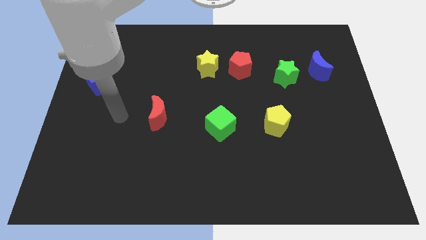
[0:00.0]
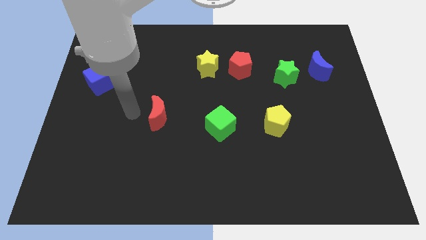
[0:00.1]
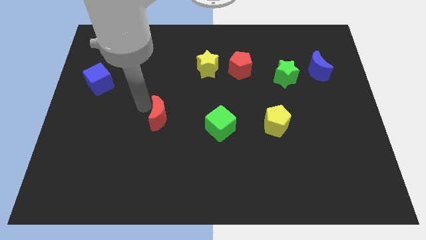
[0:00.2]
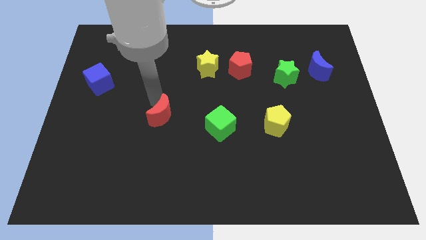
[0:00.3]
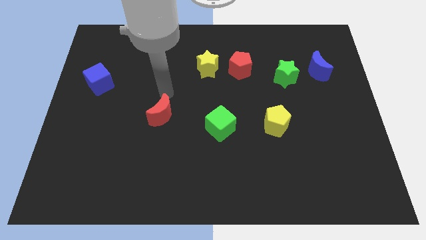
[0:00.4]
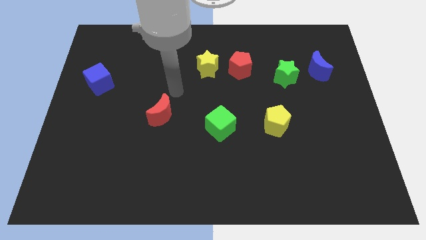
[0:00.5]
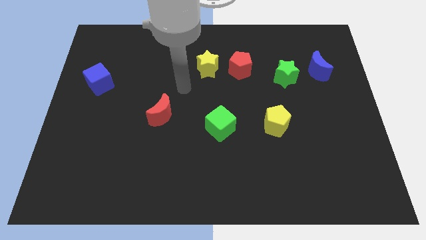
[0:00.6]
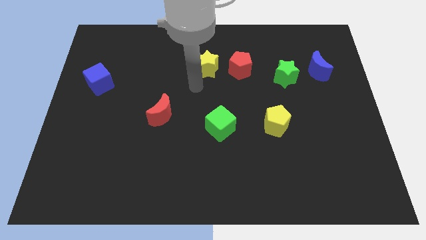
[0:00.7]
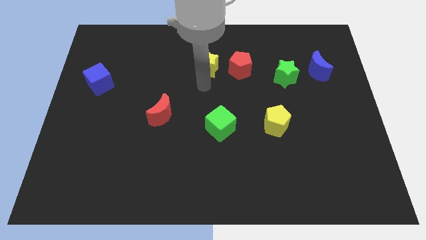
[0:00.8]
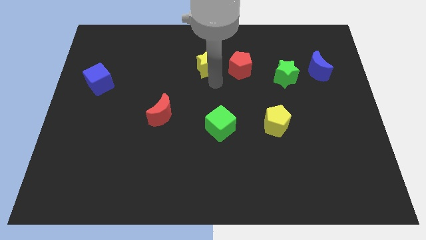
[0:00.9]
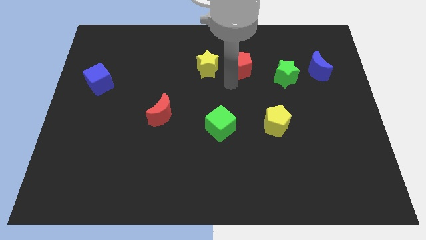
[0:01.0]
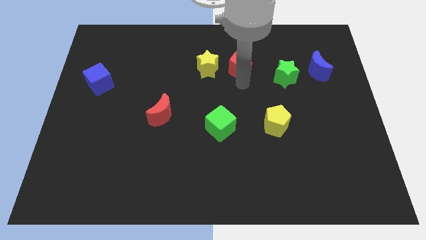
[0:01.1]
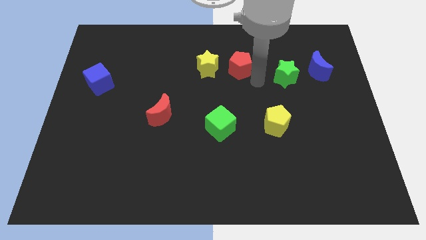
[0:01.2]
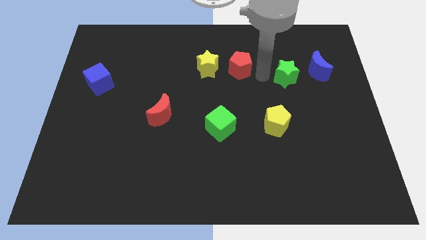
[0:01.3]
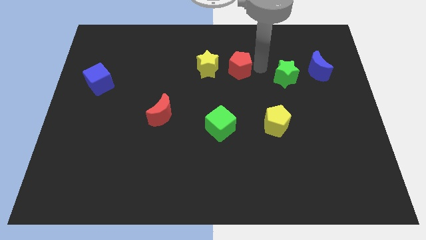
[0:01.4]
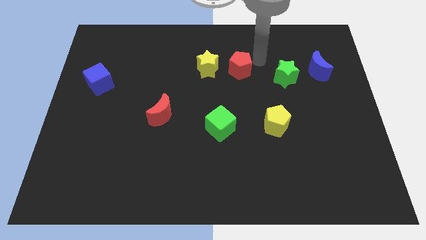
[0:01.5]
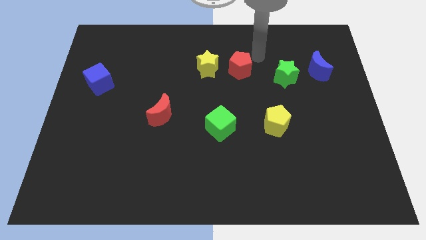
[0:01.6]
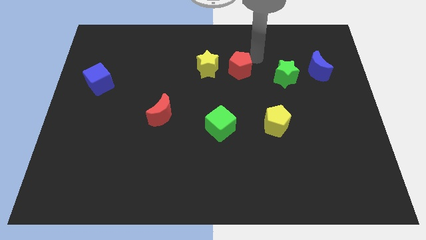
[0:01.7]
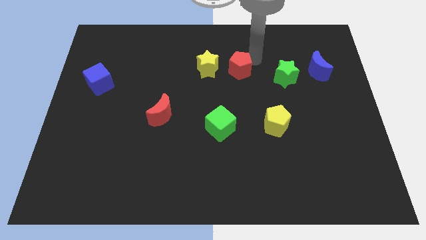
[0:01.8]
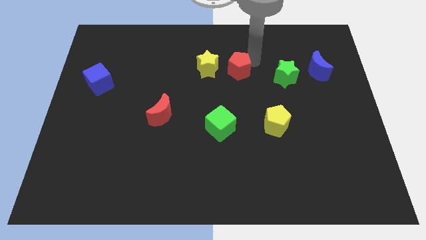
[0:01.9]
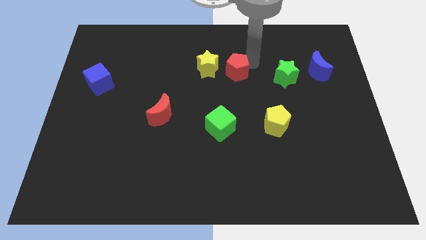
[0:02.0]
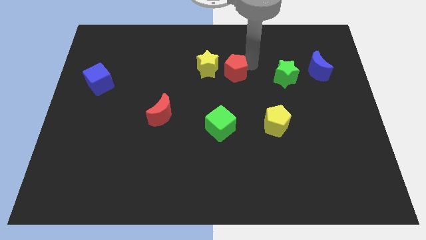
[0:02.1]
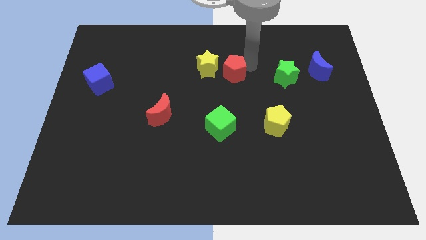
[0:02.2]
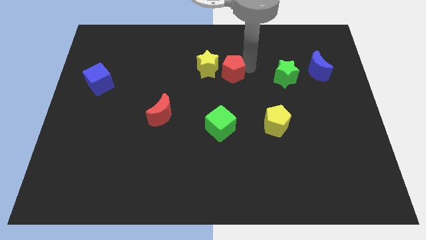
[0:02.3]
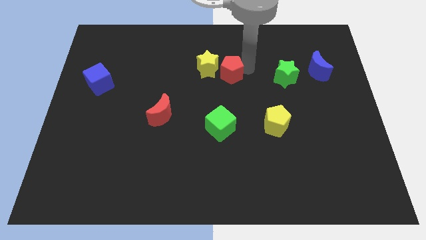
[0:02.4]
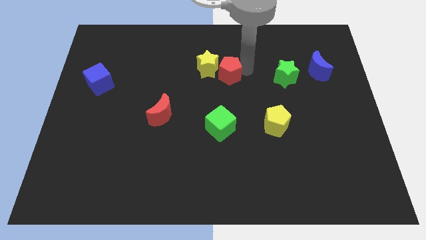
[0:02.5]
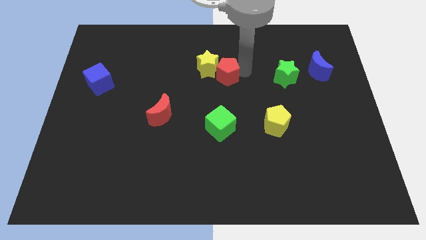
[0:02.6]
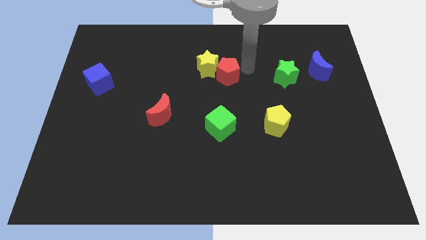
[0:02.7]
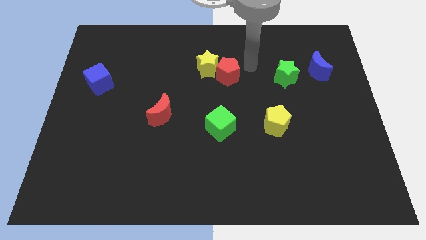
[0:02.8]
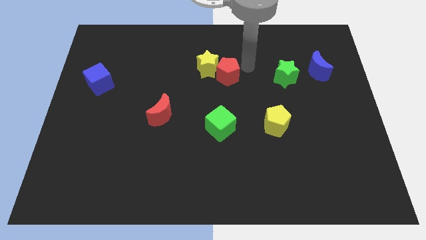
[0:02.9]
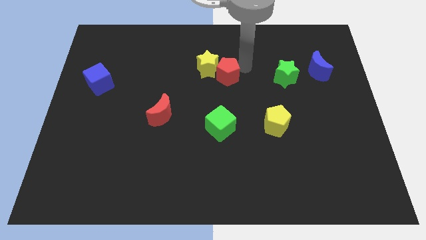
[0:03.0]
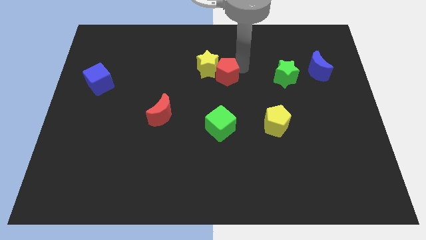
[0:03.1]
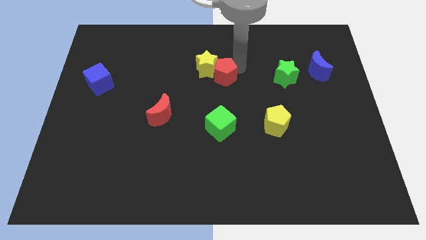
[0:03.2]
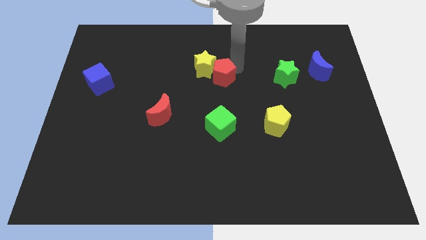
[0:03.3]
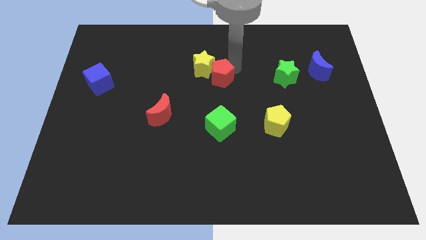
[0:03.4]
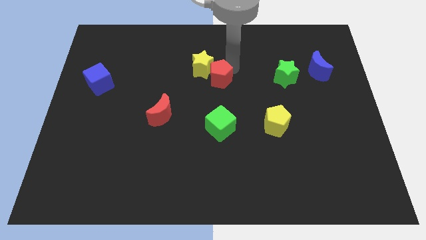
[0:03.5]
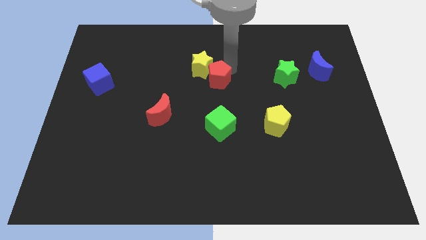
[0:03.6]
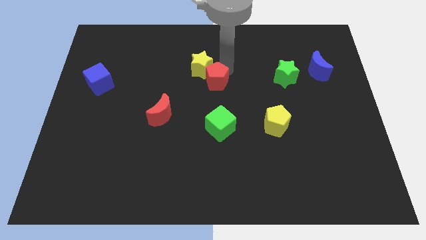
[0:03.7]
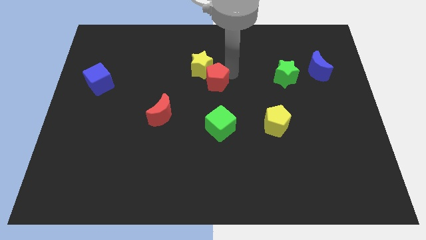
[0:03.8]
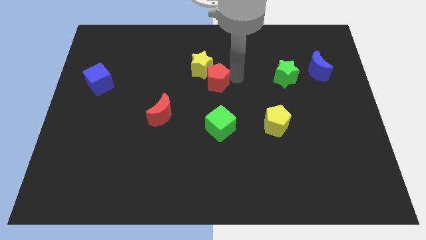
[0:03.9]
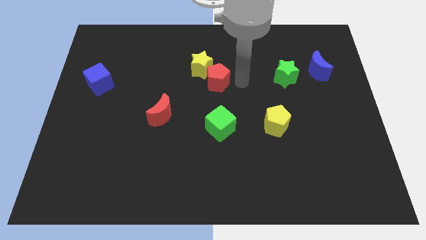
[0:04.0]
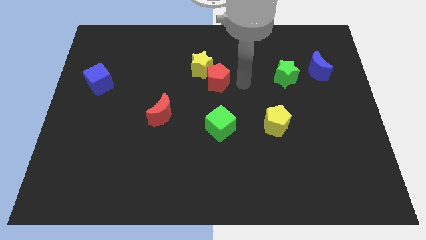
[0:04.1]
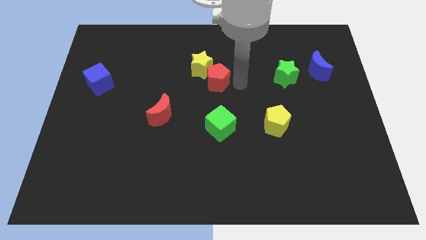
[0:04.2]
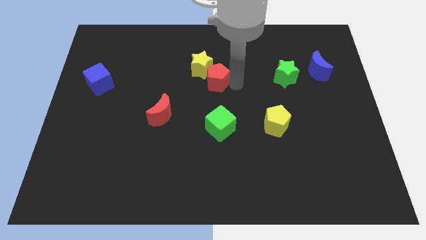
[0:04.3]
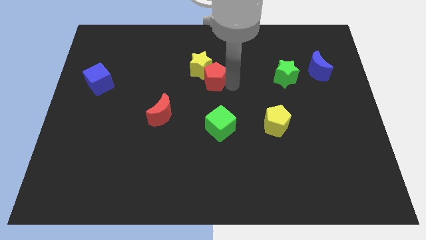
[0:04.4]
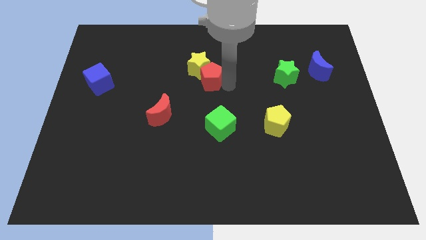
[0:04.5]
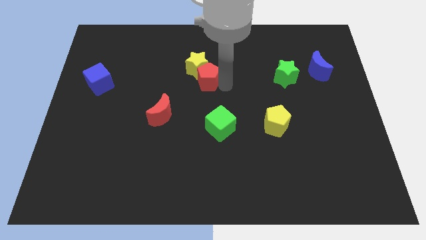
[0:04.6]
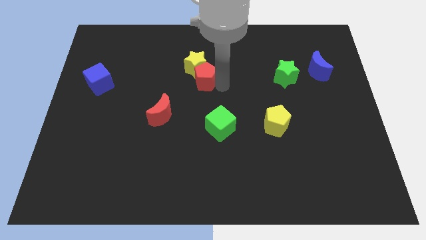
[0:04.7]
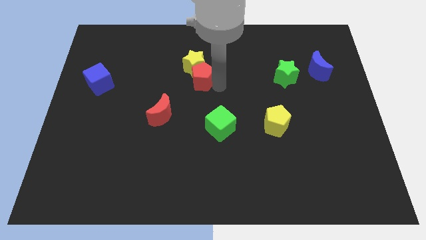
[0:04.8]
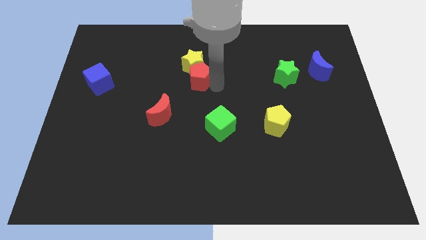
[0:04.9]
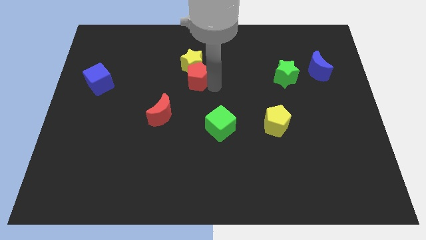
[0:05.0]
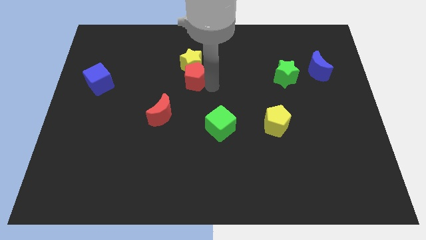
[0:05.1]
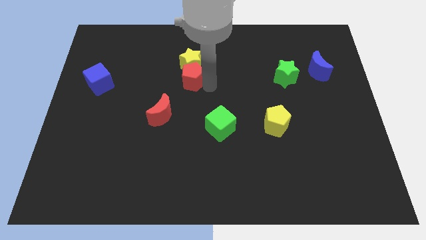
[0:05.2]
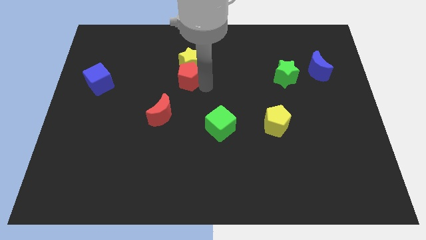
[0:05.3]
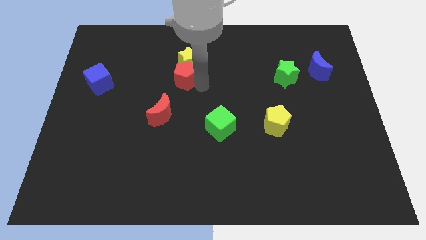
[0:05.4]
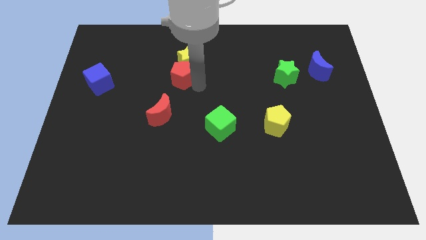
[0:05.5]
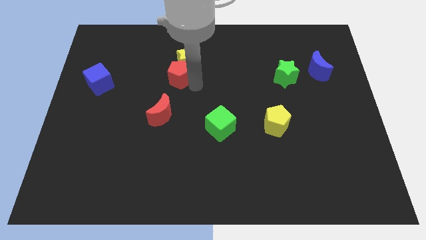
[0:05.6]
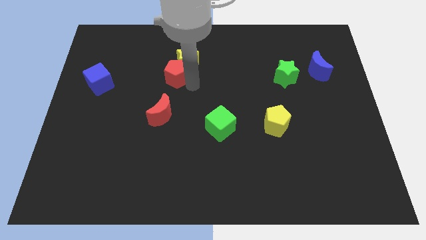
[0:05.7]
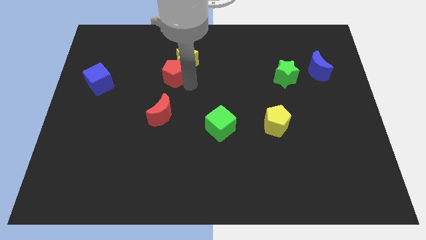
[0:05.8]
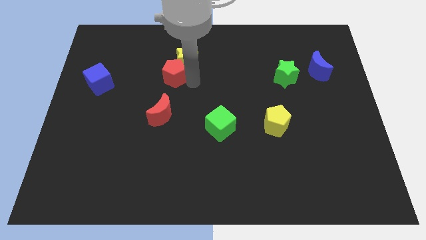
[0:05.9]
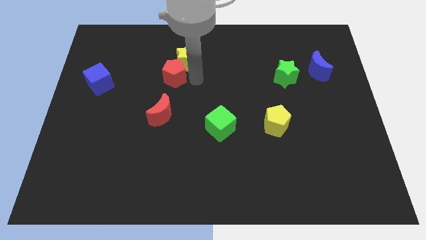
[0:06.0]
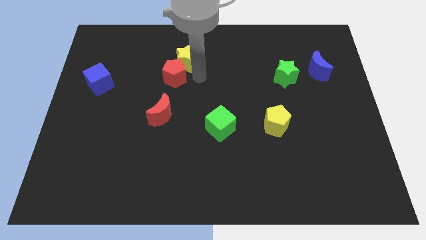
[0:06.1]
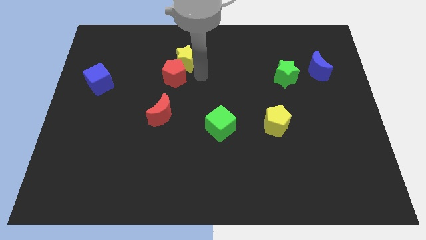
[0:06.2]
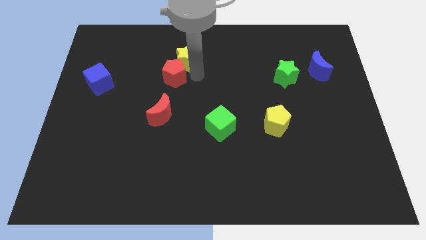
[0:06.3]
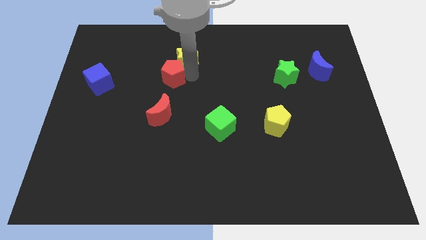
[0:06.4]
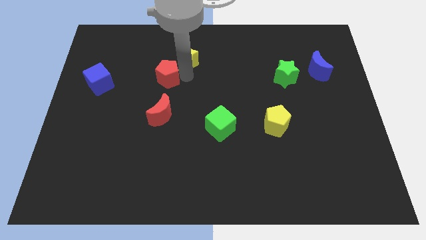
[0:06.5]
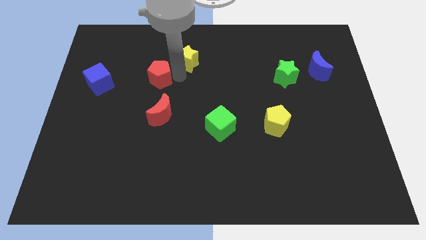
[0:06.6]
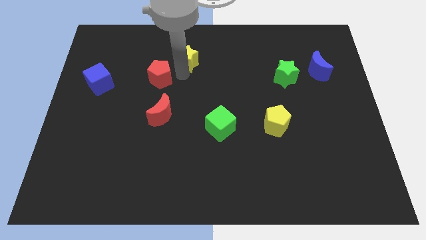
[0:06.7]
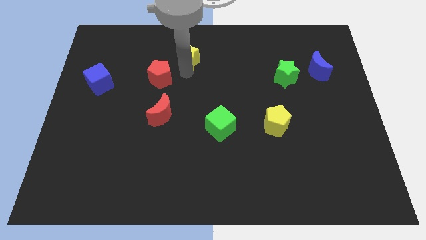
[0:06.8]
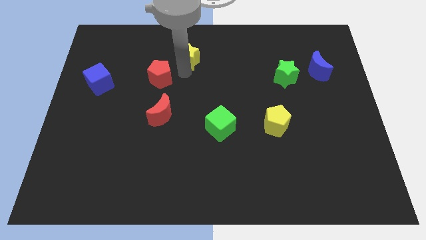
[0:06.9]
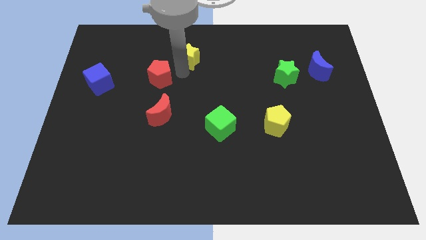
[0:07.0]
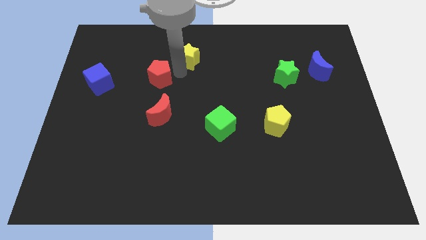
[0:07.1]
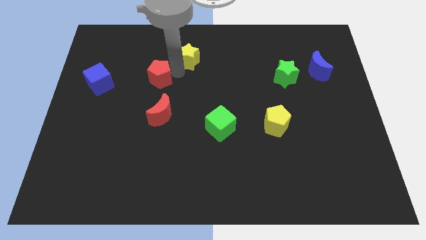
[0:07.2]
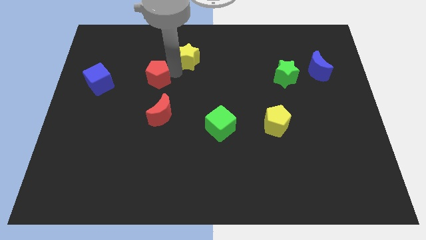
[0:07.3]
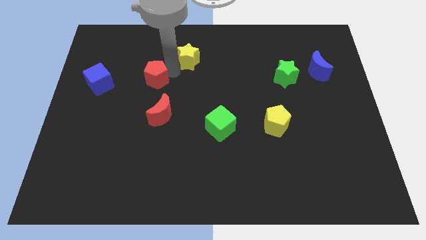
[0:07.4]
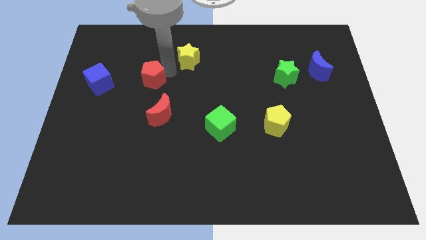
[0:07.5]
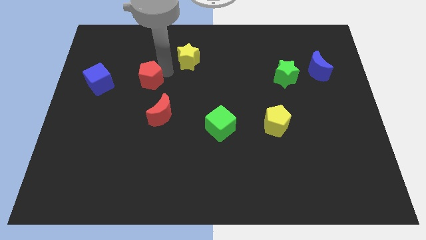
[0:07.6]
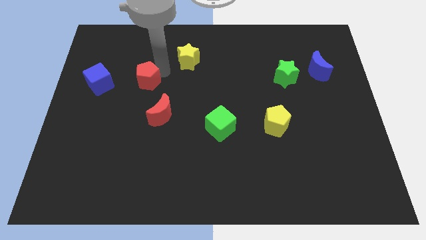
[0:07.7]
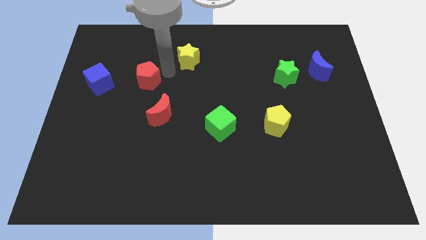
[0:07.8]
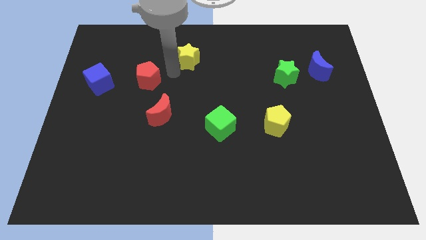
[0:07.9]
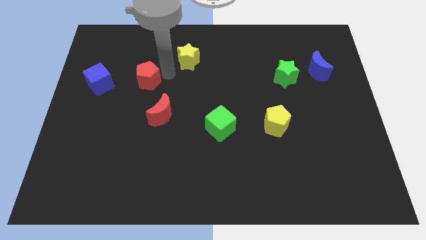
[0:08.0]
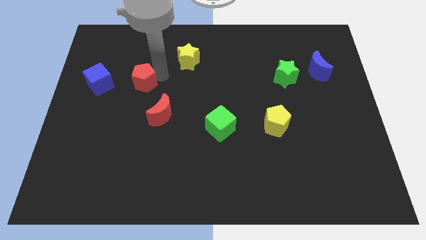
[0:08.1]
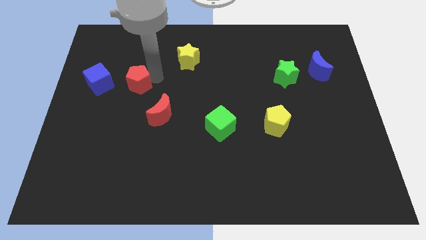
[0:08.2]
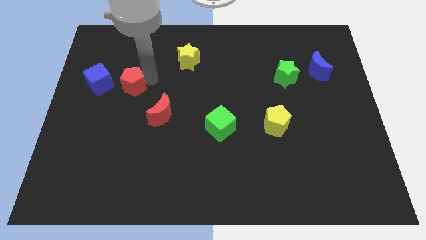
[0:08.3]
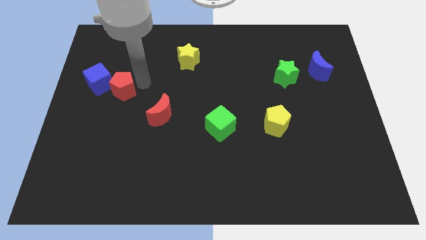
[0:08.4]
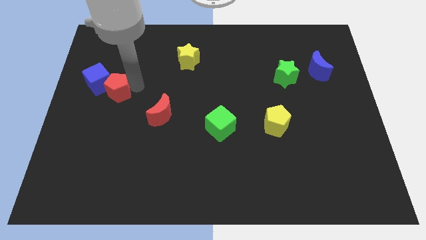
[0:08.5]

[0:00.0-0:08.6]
push the red pentagon to the blue cube
